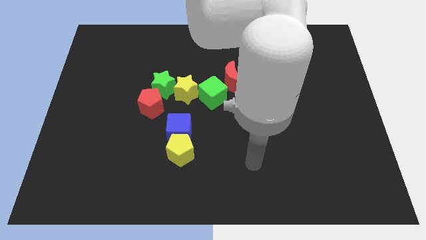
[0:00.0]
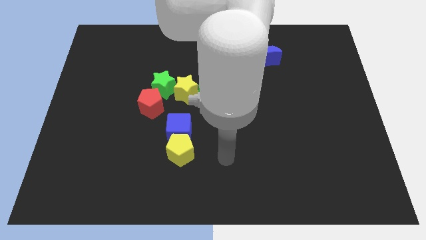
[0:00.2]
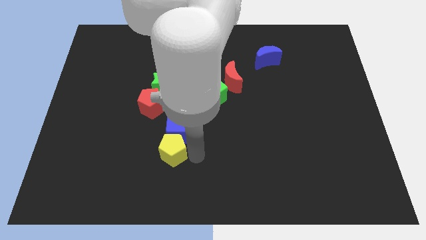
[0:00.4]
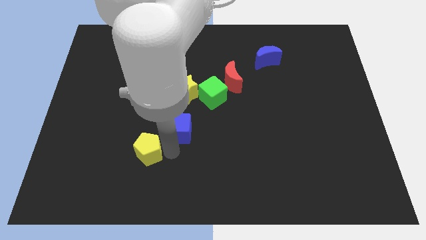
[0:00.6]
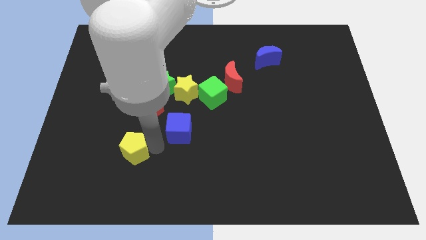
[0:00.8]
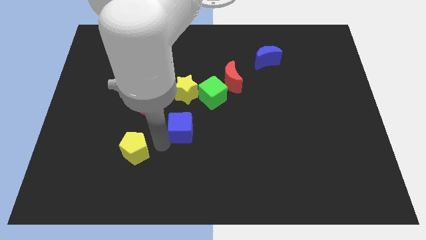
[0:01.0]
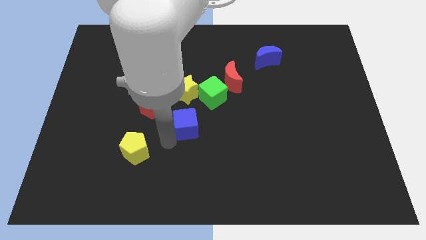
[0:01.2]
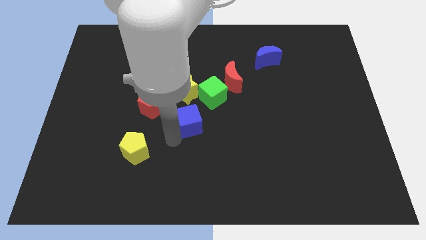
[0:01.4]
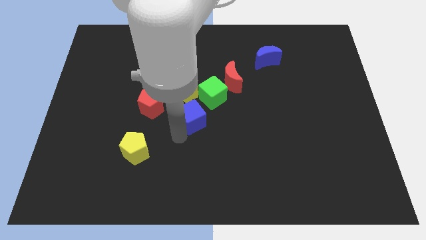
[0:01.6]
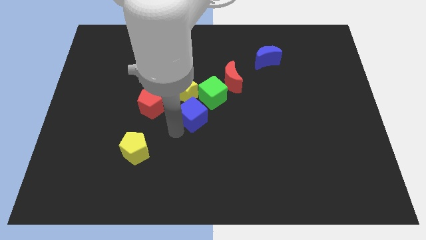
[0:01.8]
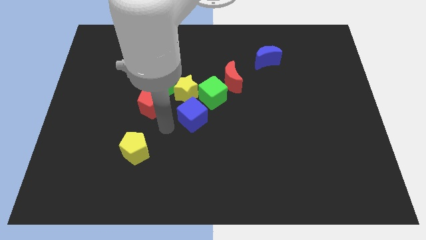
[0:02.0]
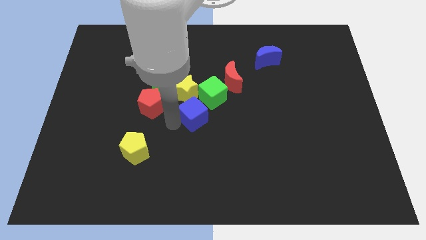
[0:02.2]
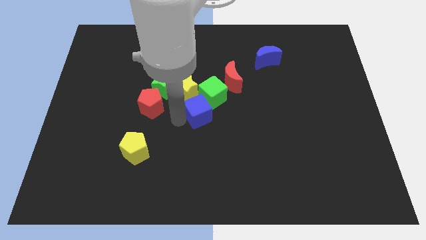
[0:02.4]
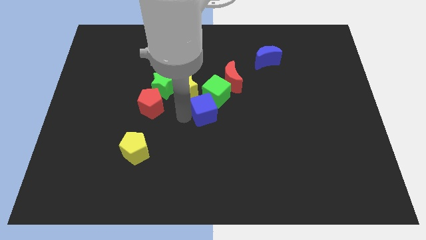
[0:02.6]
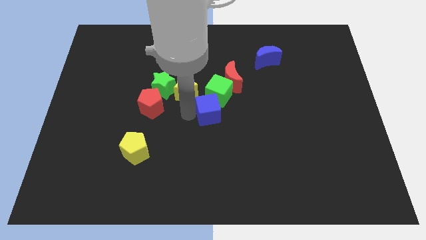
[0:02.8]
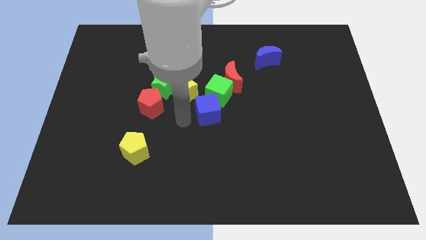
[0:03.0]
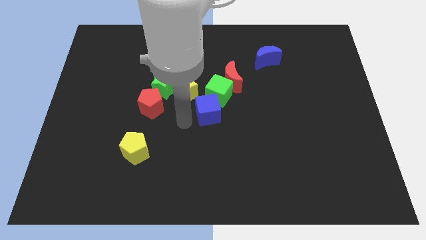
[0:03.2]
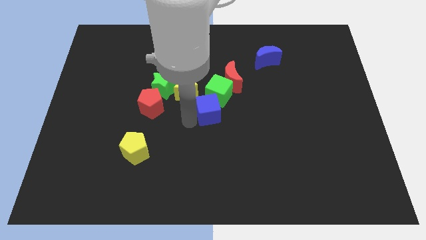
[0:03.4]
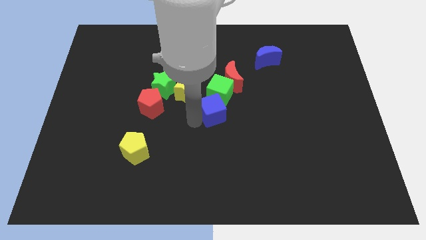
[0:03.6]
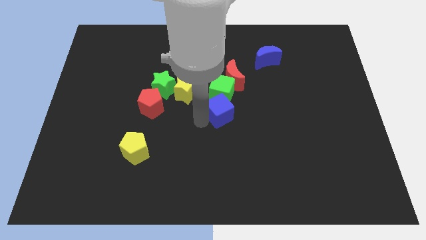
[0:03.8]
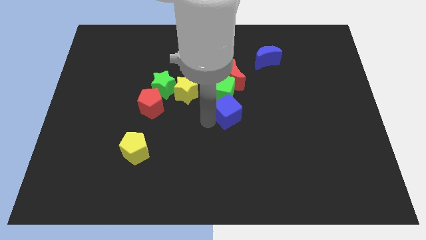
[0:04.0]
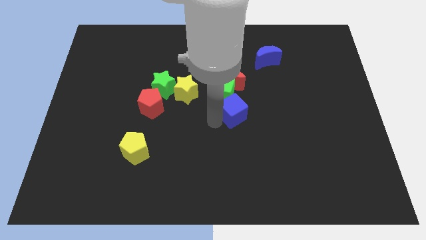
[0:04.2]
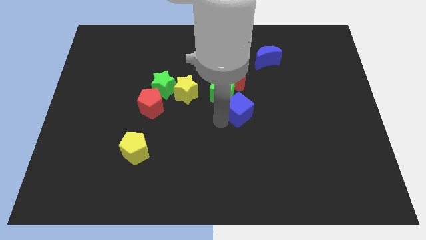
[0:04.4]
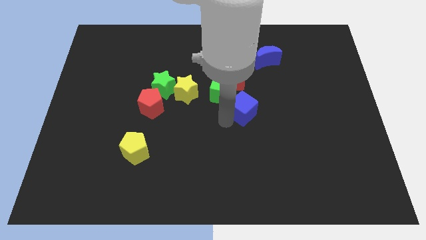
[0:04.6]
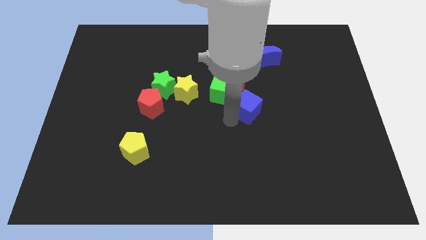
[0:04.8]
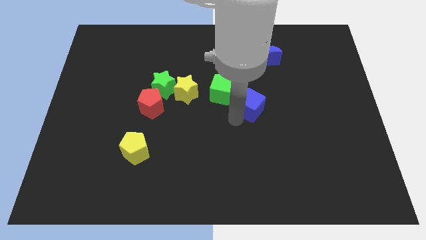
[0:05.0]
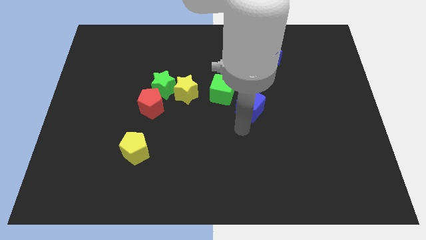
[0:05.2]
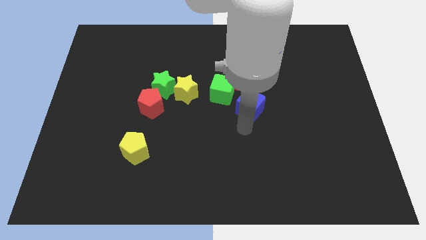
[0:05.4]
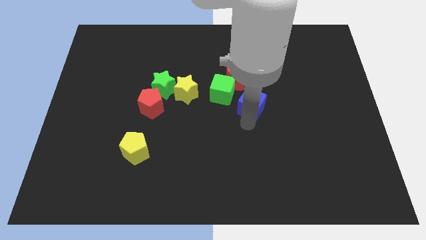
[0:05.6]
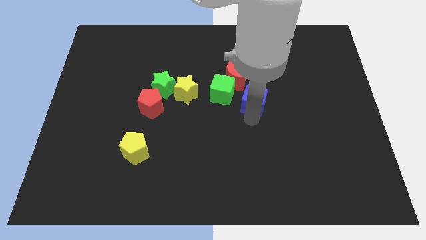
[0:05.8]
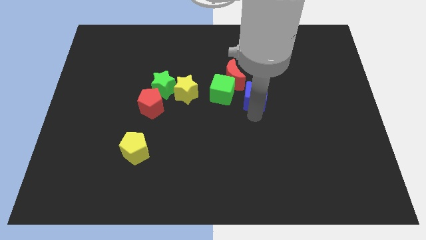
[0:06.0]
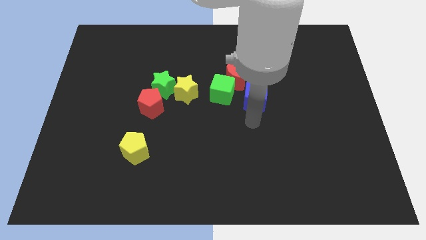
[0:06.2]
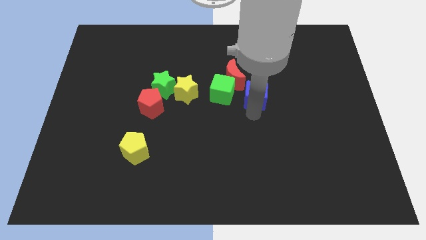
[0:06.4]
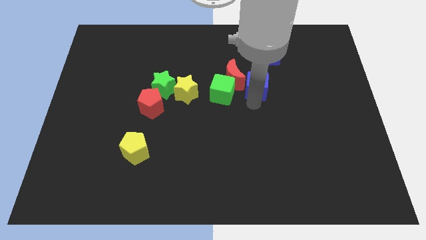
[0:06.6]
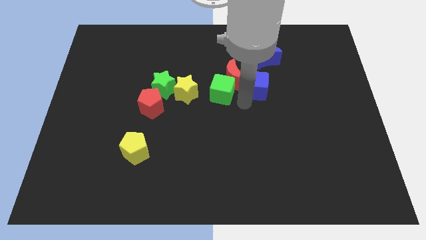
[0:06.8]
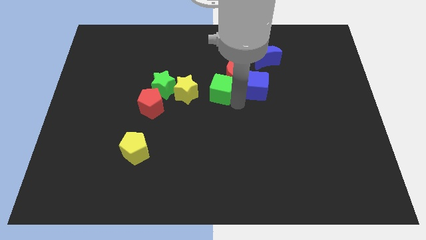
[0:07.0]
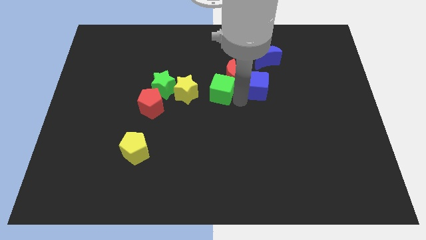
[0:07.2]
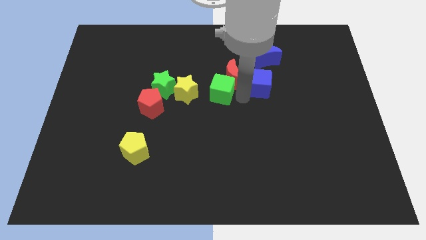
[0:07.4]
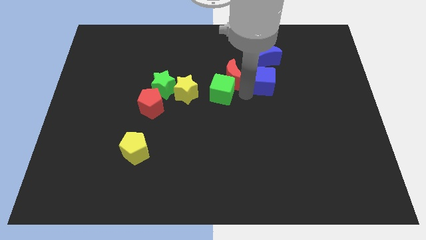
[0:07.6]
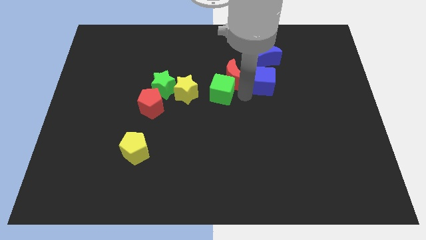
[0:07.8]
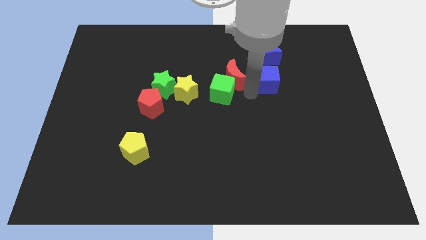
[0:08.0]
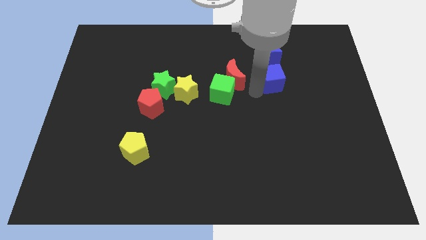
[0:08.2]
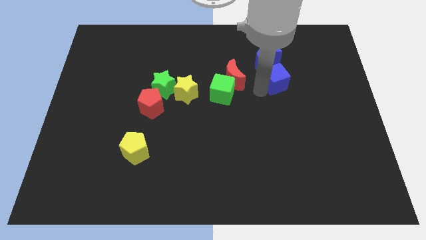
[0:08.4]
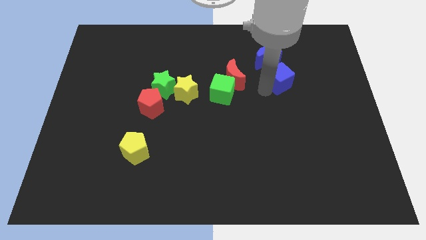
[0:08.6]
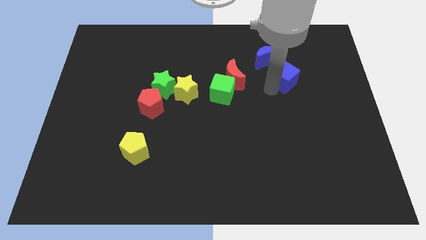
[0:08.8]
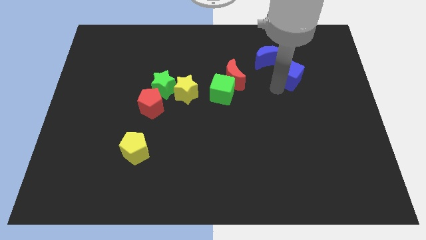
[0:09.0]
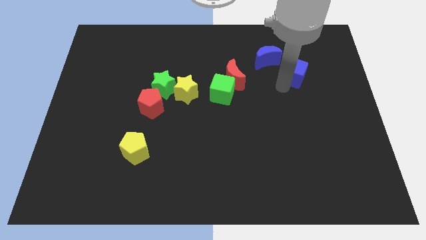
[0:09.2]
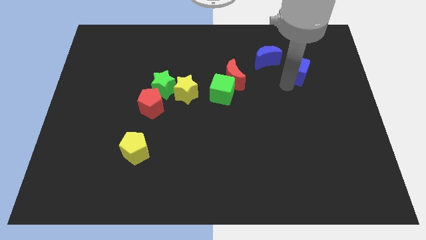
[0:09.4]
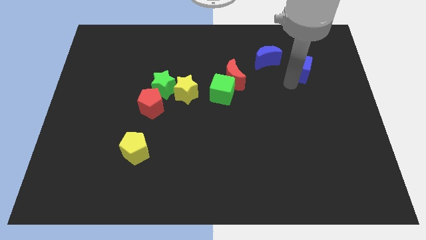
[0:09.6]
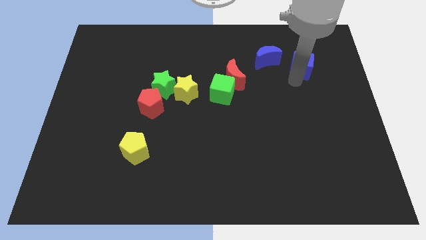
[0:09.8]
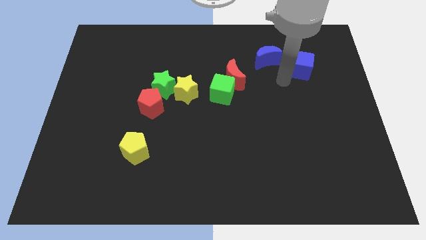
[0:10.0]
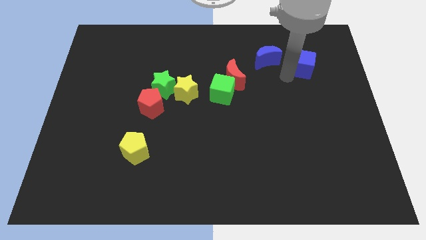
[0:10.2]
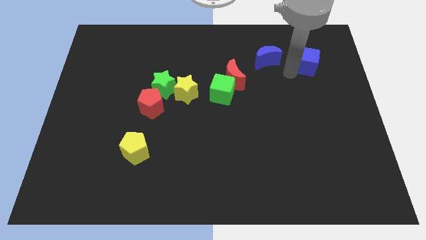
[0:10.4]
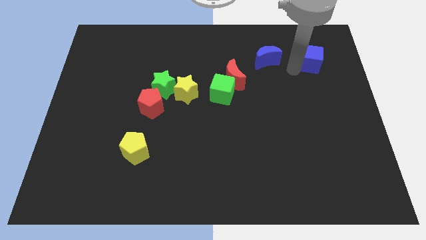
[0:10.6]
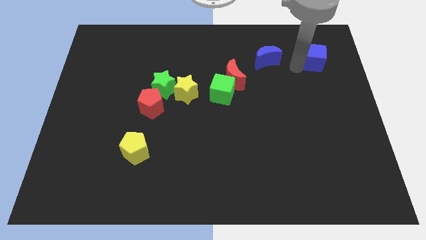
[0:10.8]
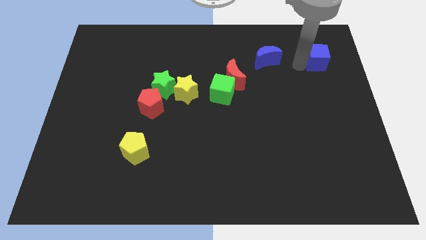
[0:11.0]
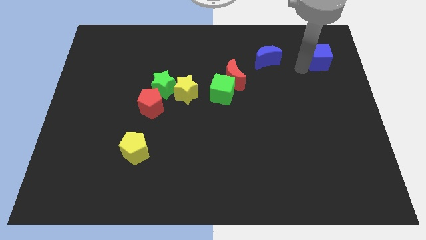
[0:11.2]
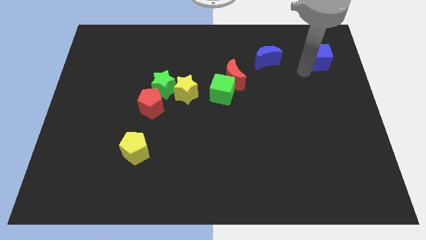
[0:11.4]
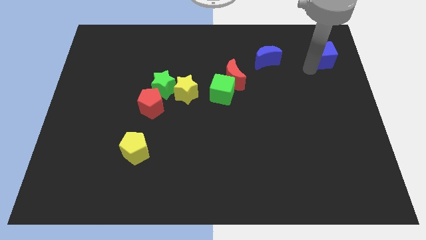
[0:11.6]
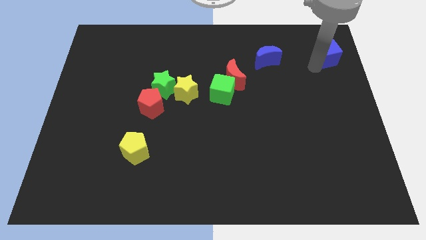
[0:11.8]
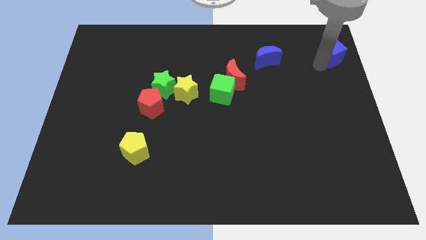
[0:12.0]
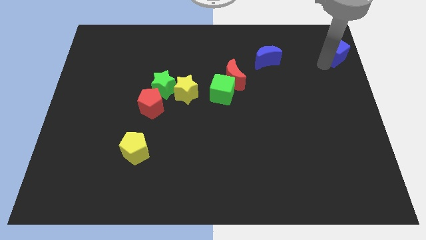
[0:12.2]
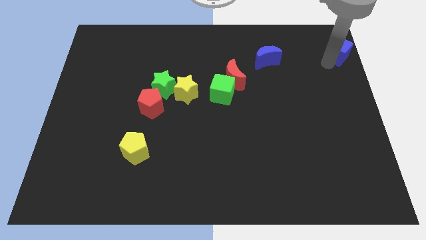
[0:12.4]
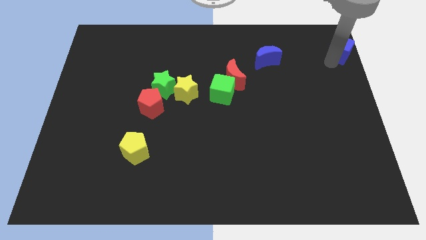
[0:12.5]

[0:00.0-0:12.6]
push the blue cube to the top right of the board

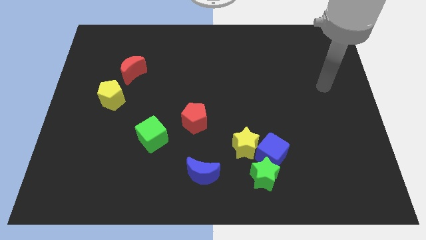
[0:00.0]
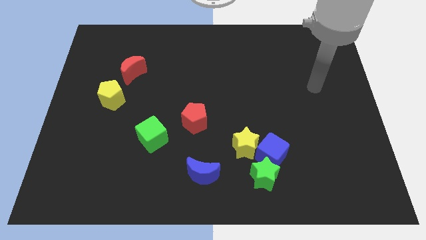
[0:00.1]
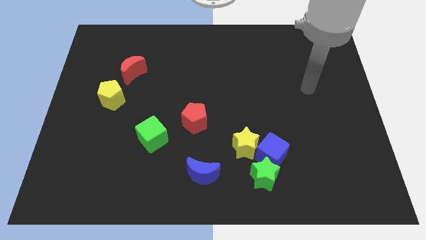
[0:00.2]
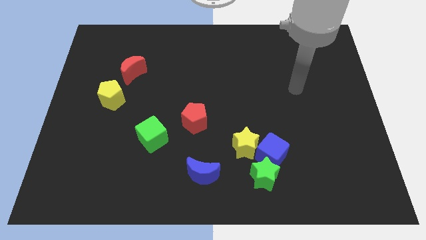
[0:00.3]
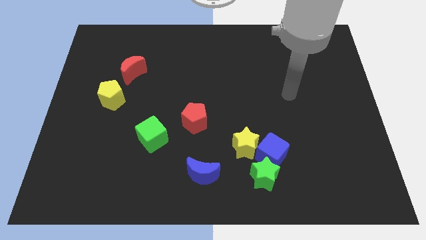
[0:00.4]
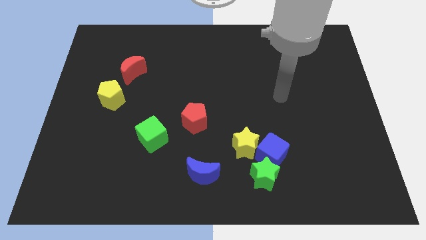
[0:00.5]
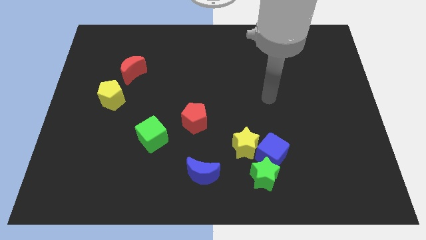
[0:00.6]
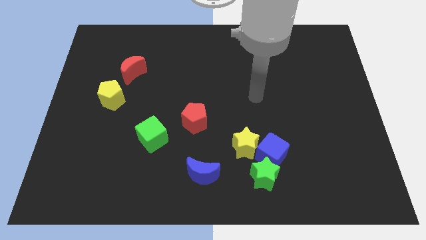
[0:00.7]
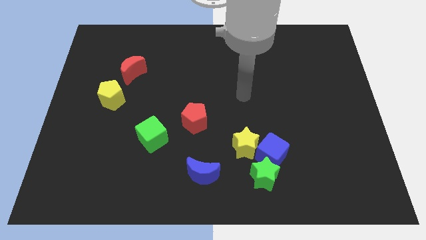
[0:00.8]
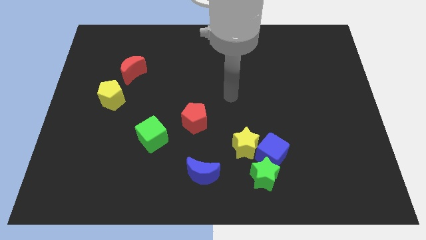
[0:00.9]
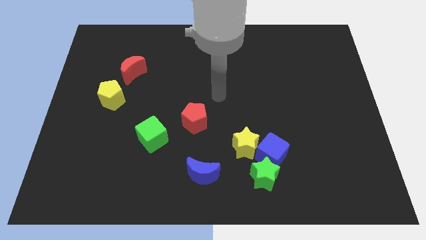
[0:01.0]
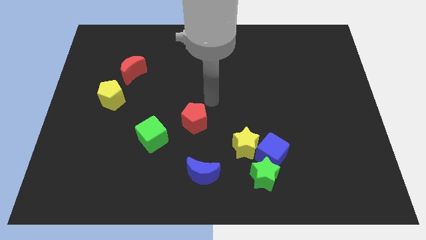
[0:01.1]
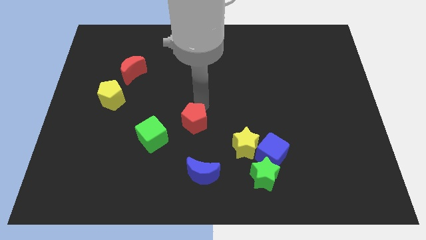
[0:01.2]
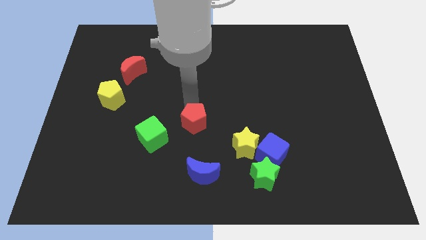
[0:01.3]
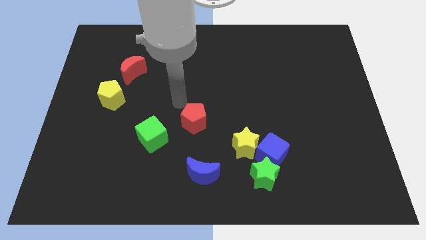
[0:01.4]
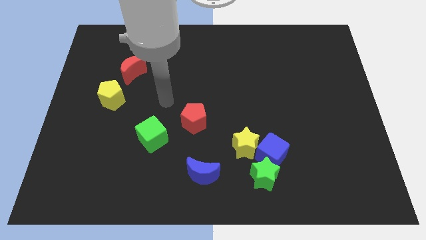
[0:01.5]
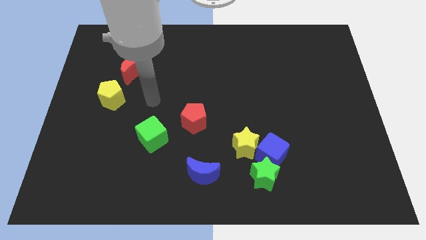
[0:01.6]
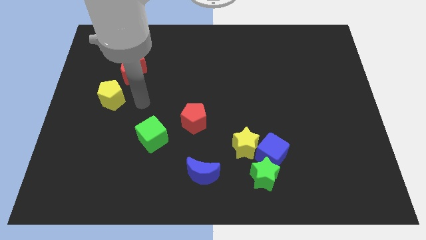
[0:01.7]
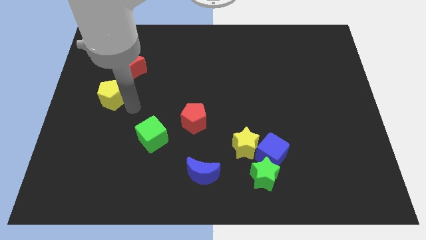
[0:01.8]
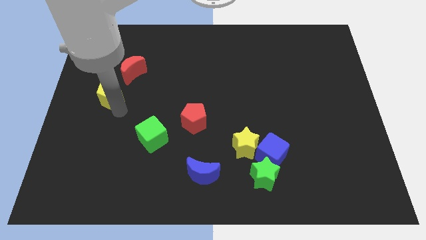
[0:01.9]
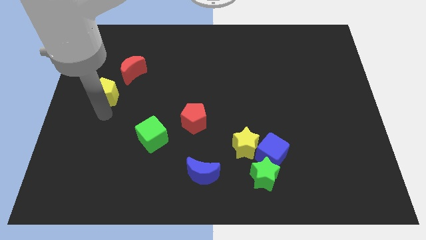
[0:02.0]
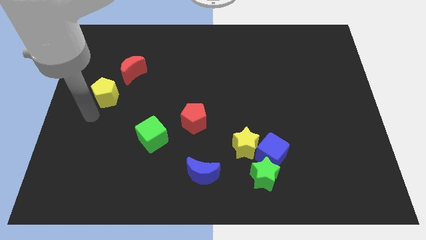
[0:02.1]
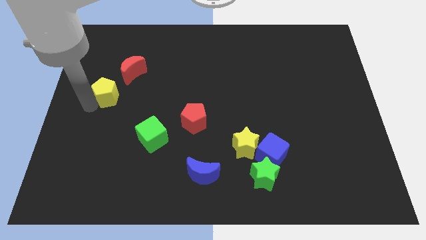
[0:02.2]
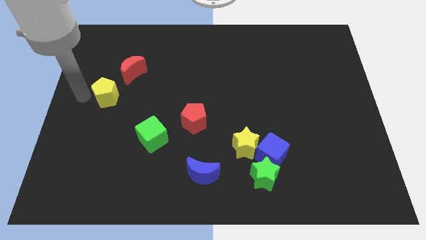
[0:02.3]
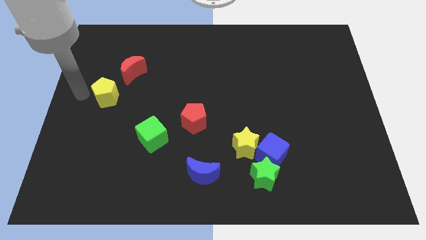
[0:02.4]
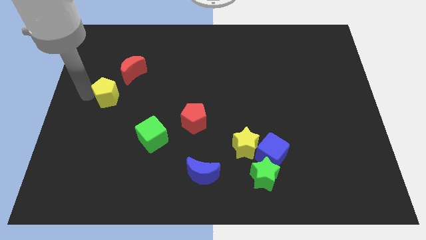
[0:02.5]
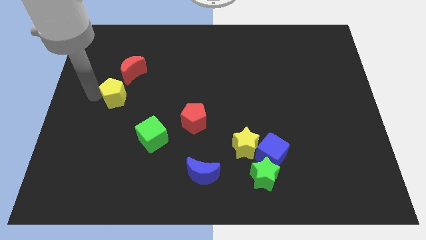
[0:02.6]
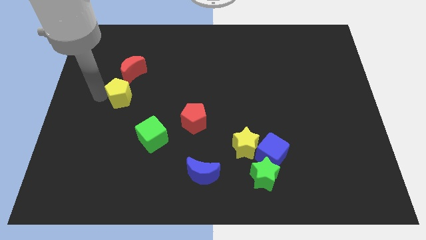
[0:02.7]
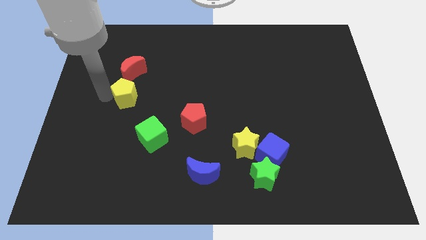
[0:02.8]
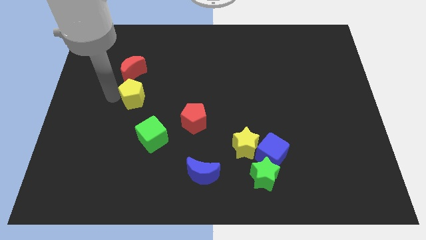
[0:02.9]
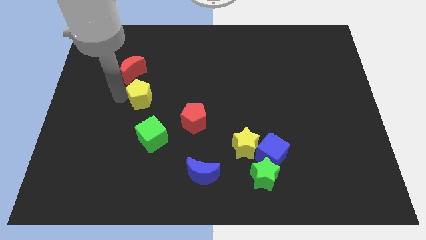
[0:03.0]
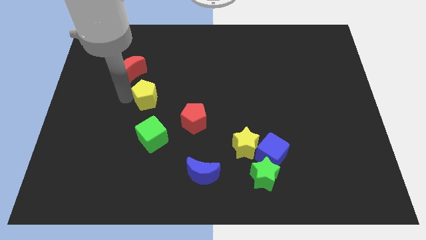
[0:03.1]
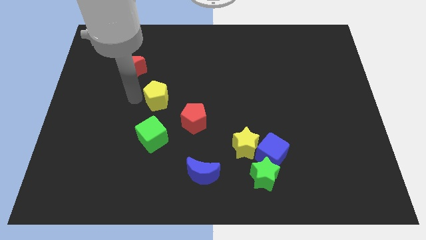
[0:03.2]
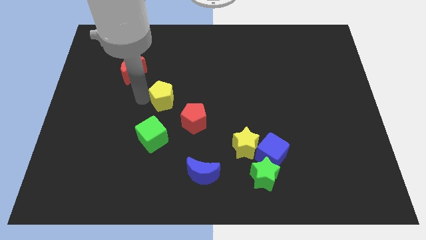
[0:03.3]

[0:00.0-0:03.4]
move the yellow pentagon to the center
